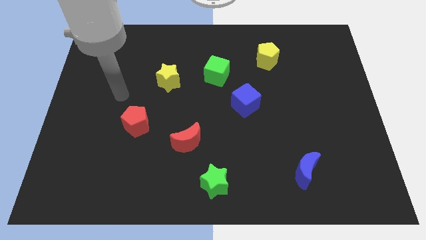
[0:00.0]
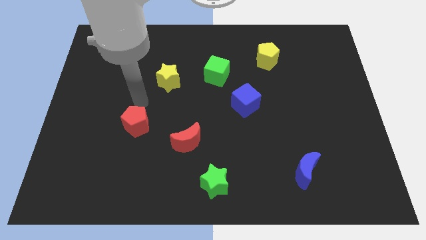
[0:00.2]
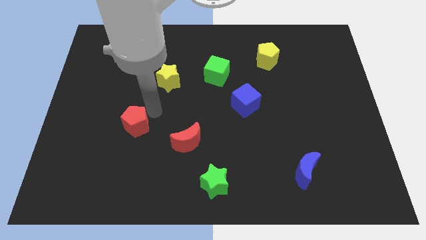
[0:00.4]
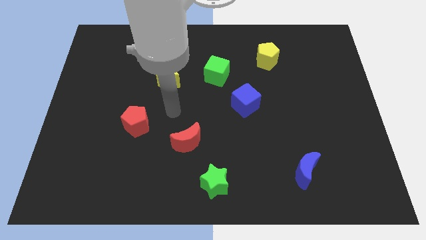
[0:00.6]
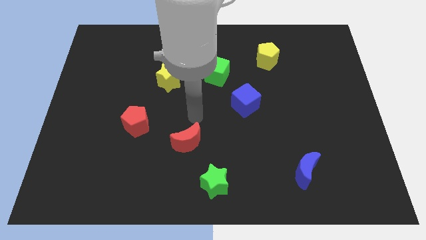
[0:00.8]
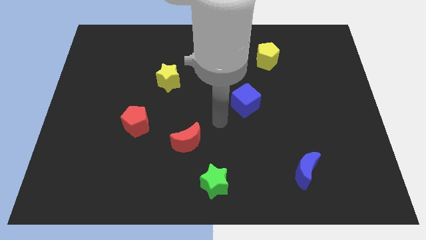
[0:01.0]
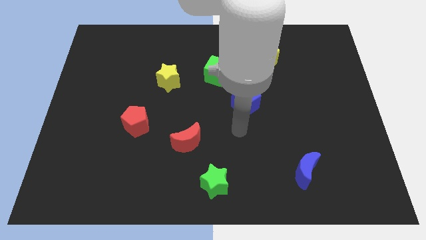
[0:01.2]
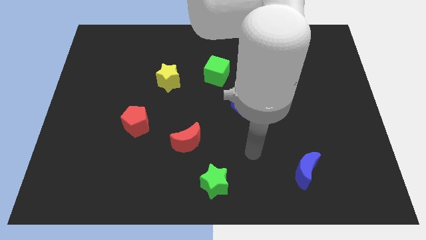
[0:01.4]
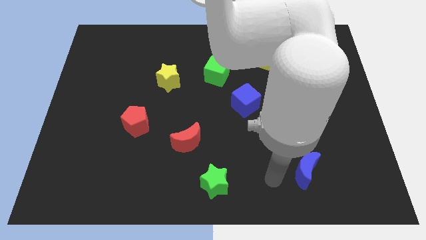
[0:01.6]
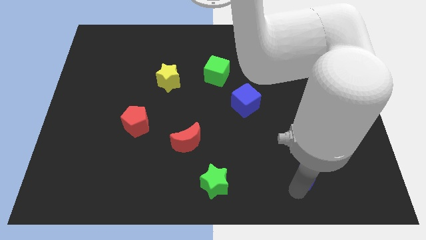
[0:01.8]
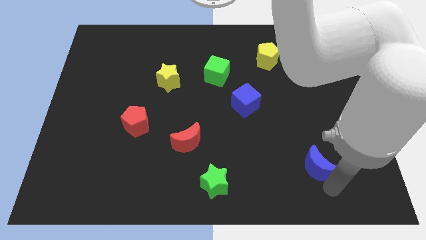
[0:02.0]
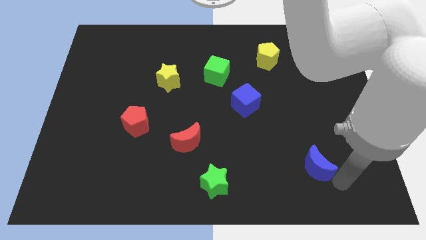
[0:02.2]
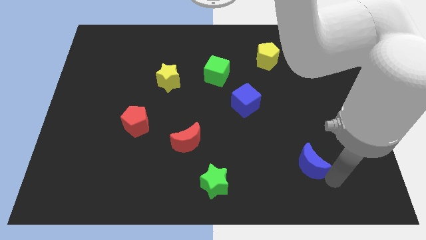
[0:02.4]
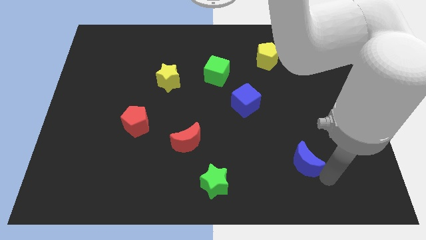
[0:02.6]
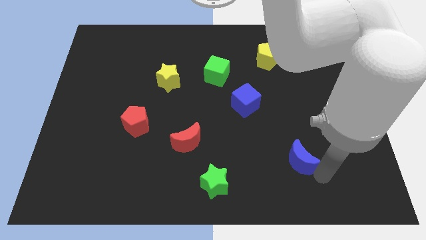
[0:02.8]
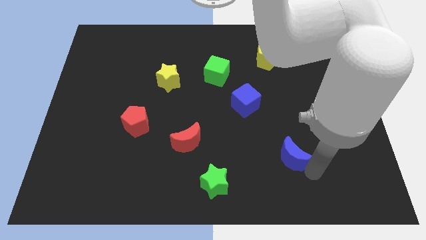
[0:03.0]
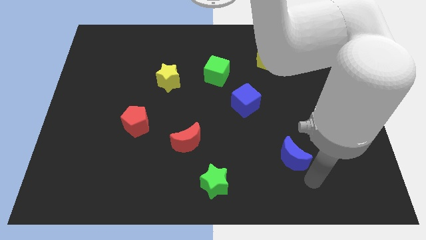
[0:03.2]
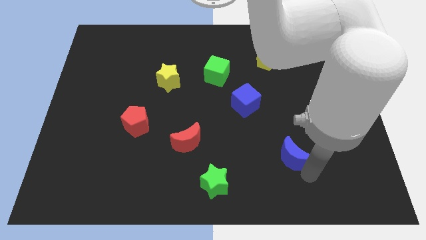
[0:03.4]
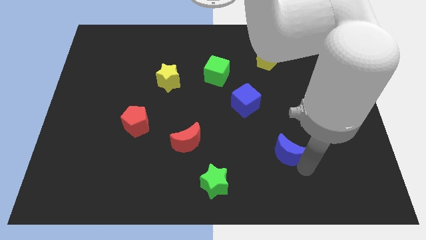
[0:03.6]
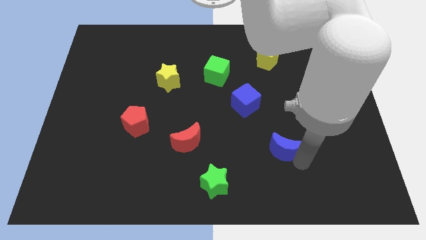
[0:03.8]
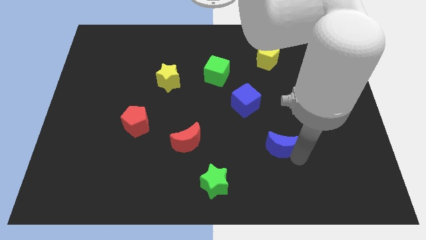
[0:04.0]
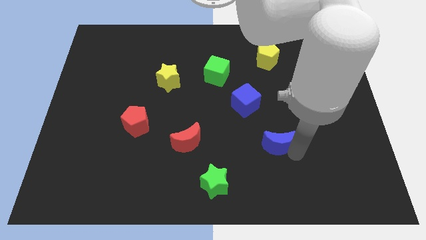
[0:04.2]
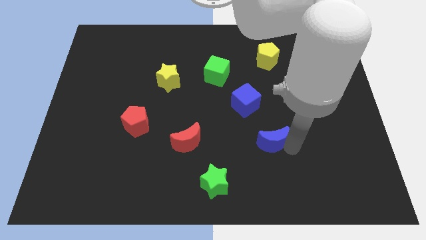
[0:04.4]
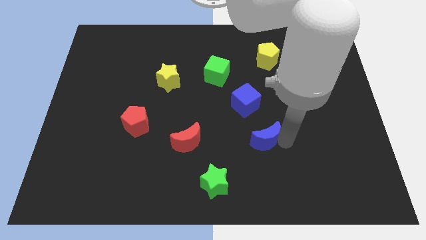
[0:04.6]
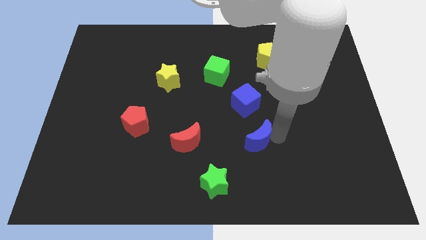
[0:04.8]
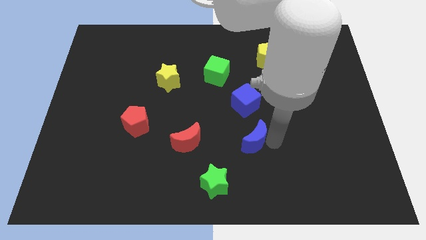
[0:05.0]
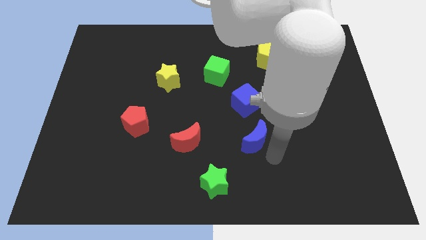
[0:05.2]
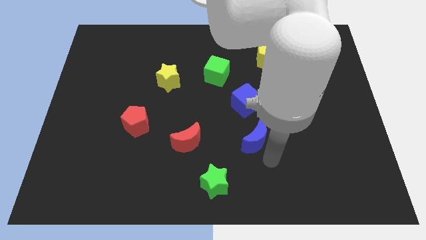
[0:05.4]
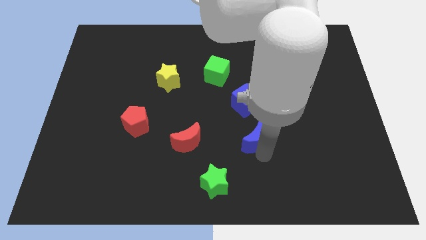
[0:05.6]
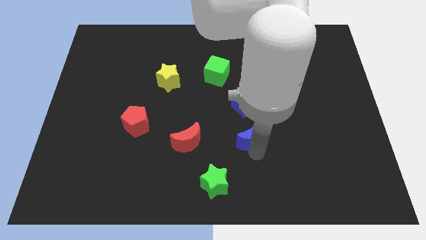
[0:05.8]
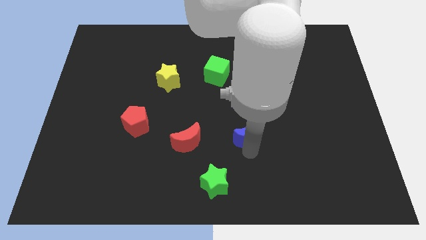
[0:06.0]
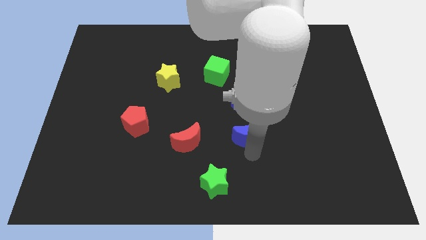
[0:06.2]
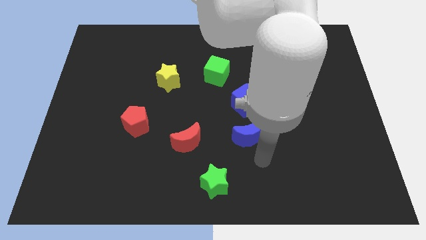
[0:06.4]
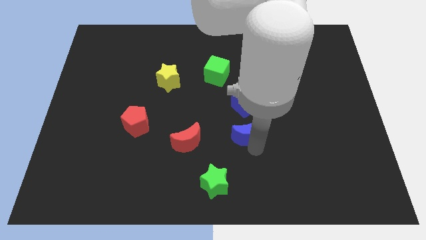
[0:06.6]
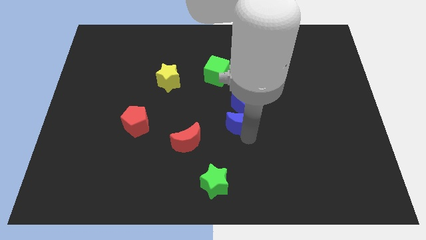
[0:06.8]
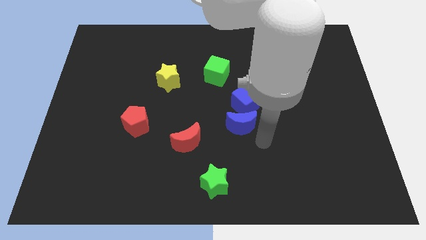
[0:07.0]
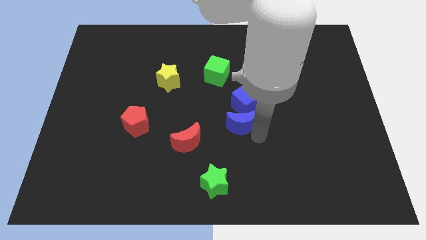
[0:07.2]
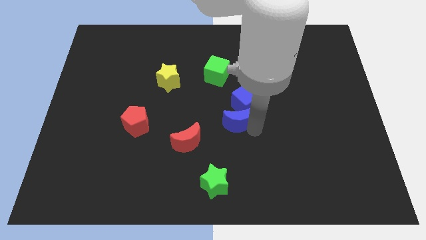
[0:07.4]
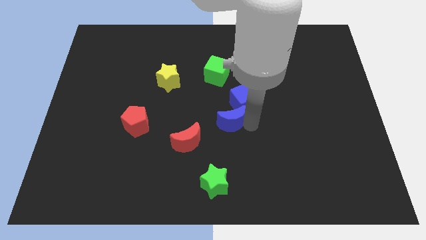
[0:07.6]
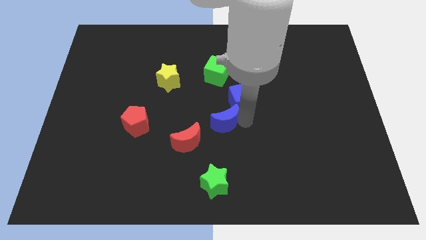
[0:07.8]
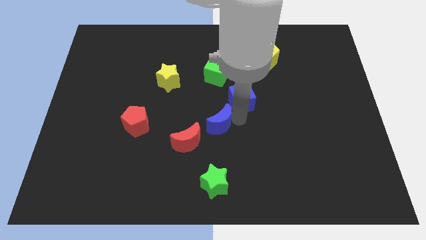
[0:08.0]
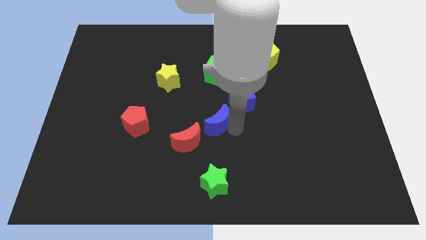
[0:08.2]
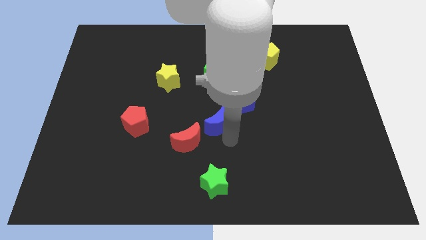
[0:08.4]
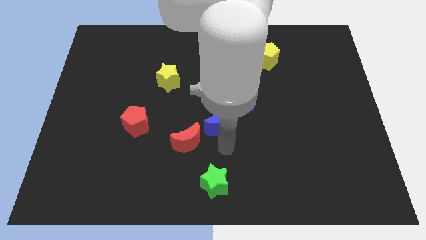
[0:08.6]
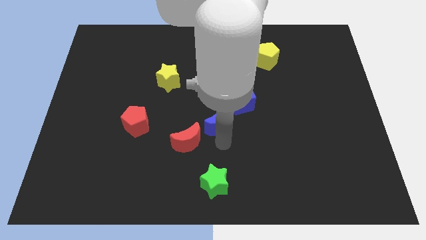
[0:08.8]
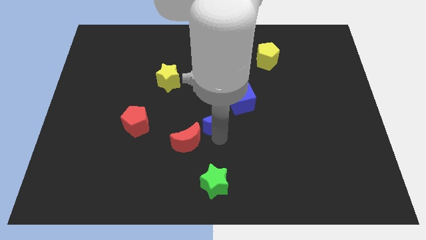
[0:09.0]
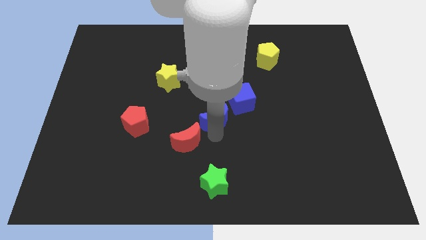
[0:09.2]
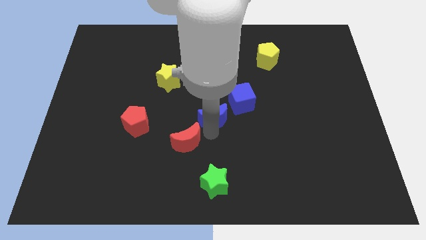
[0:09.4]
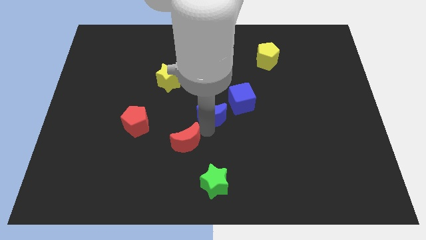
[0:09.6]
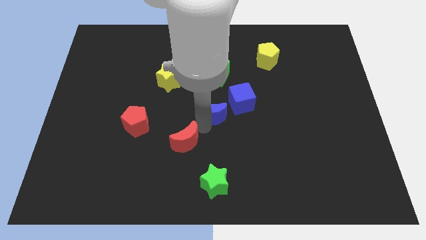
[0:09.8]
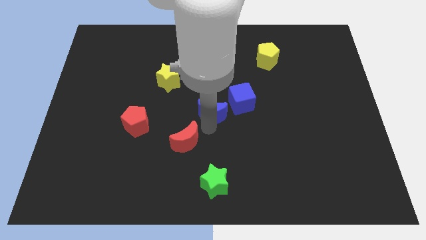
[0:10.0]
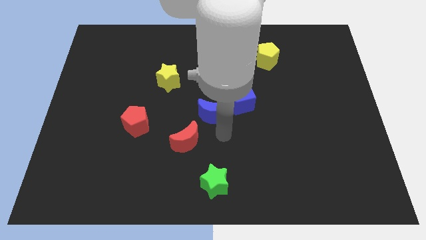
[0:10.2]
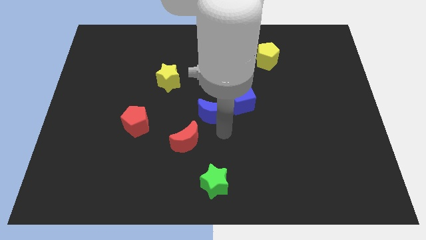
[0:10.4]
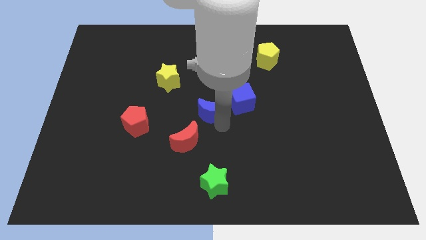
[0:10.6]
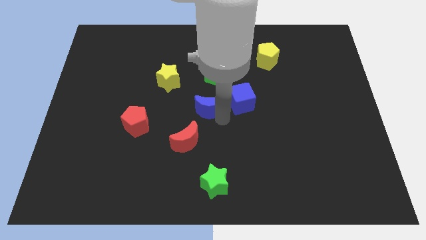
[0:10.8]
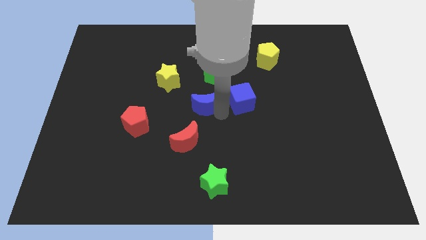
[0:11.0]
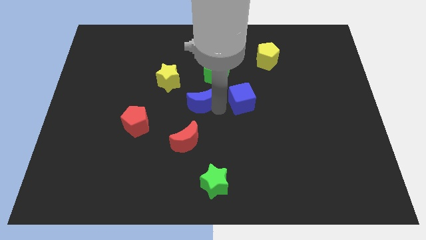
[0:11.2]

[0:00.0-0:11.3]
put the blue moon to the bottom left of the green cube

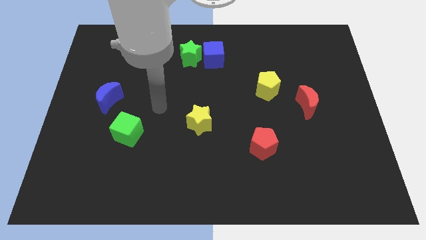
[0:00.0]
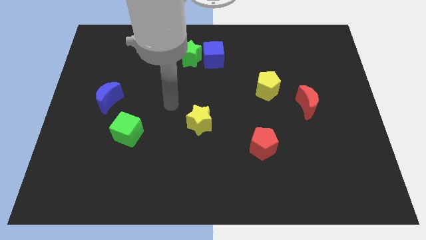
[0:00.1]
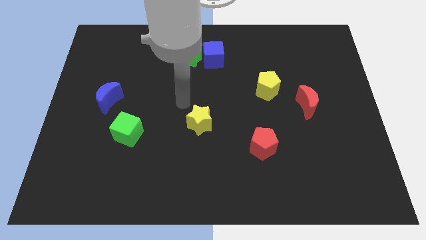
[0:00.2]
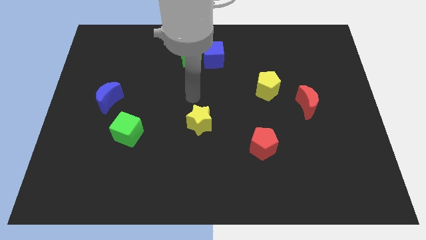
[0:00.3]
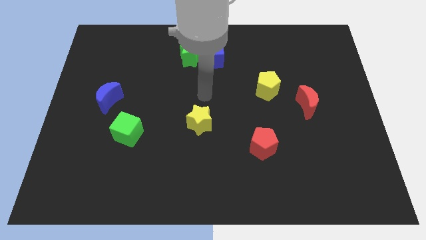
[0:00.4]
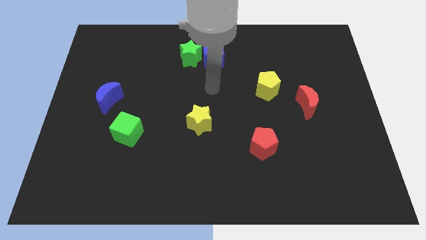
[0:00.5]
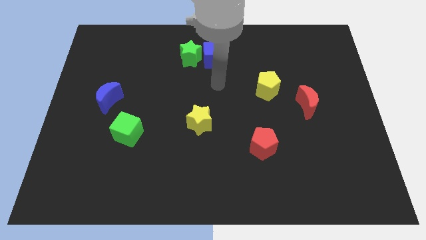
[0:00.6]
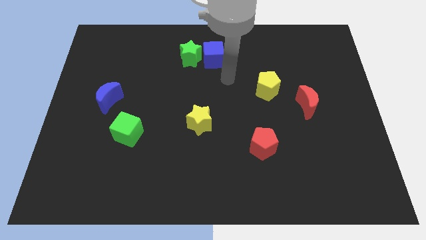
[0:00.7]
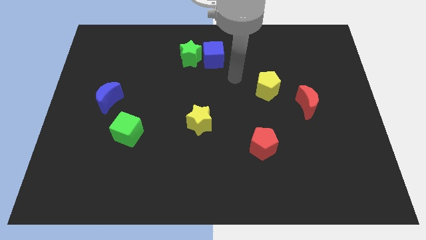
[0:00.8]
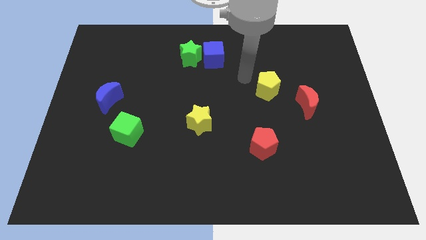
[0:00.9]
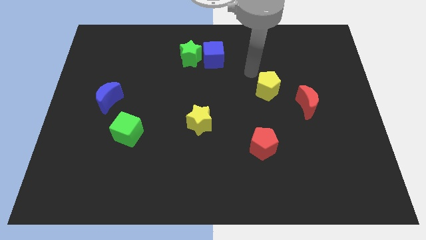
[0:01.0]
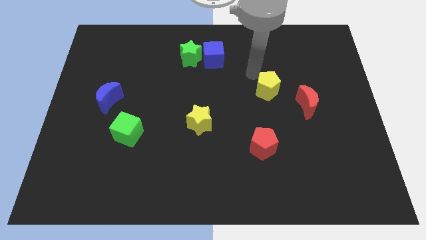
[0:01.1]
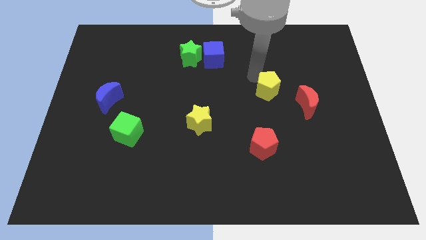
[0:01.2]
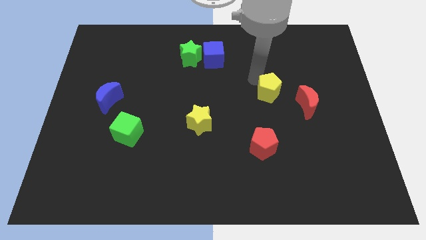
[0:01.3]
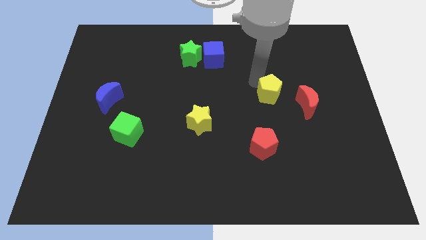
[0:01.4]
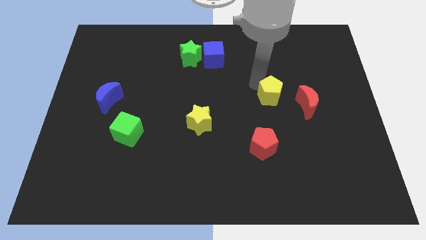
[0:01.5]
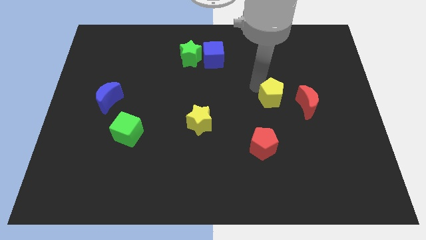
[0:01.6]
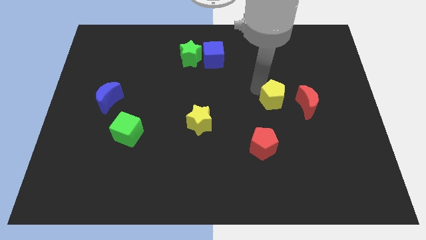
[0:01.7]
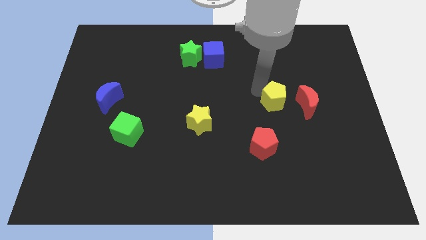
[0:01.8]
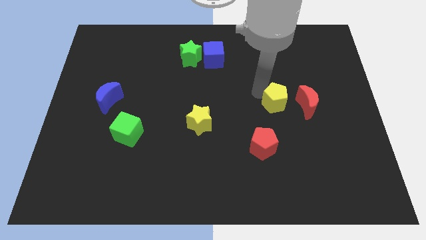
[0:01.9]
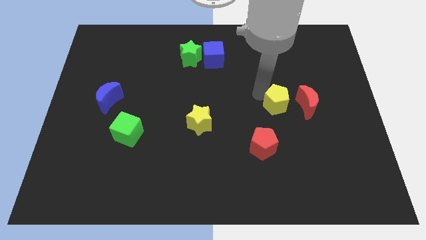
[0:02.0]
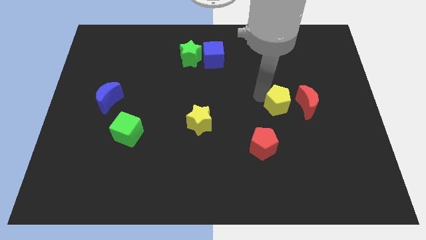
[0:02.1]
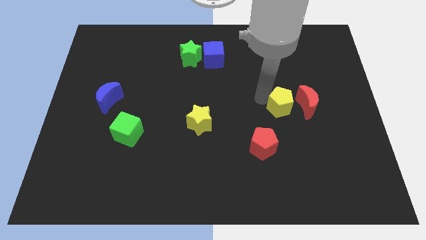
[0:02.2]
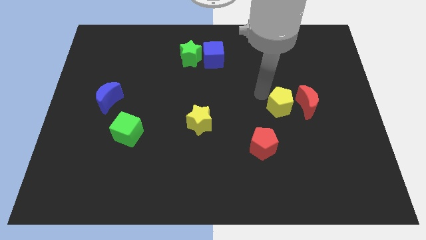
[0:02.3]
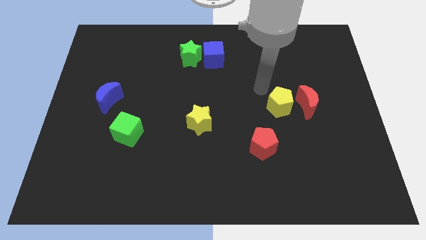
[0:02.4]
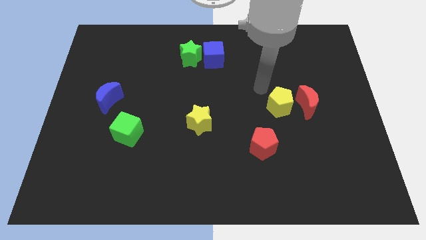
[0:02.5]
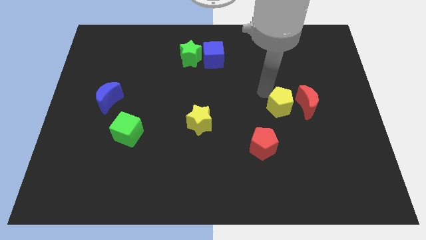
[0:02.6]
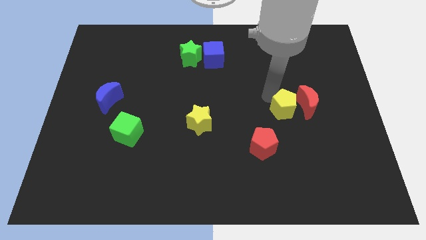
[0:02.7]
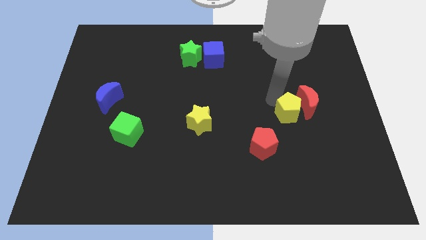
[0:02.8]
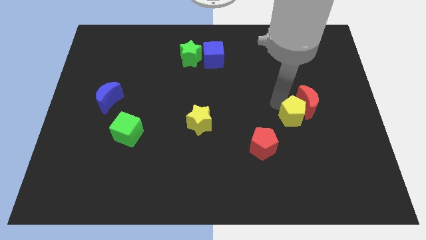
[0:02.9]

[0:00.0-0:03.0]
push the yellow pentagon to the bottom of the red moon
